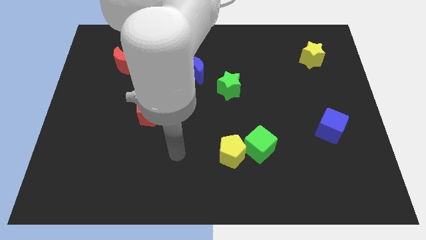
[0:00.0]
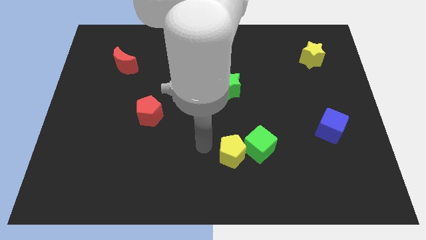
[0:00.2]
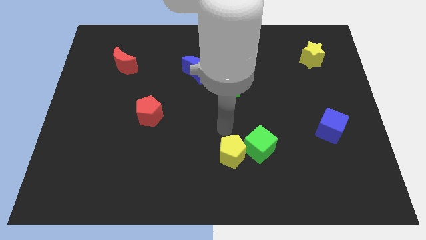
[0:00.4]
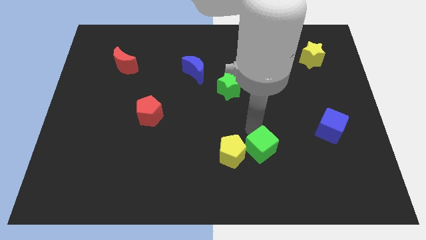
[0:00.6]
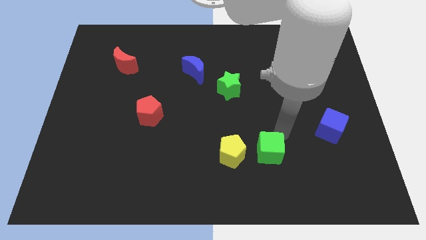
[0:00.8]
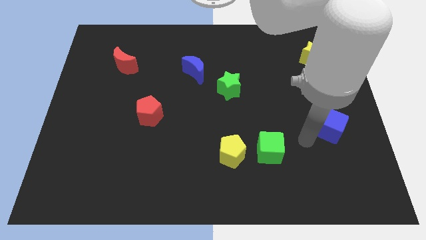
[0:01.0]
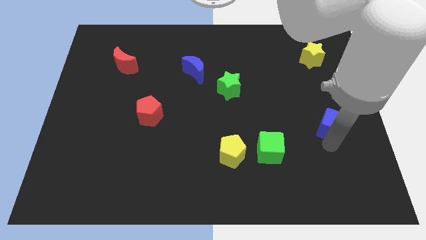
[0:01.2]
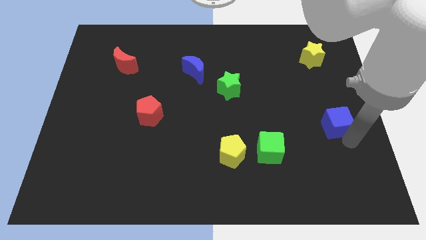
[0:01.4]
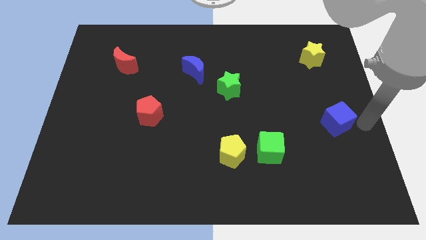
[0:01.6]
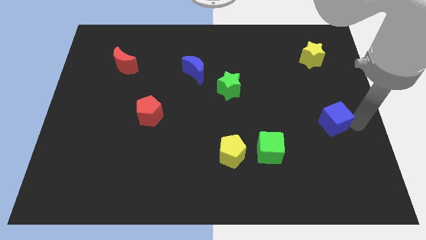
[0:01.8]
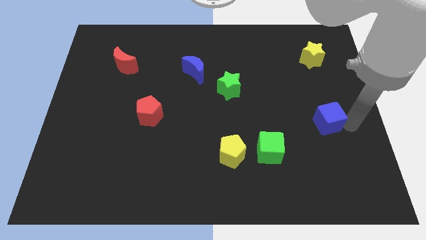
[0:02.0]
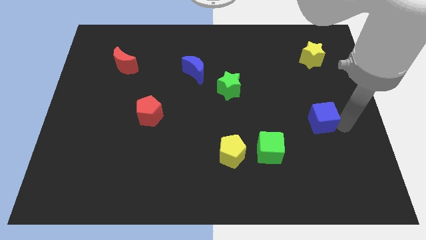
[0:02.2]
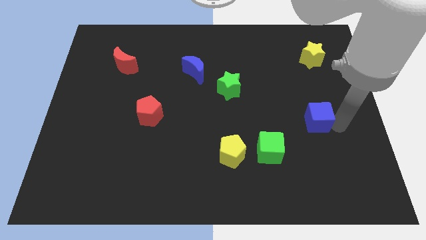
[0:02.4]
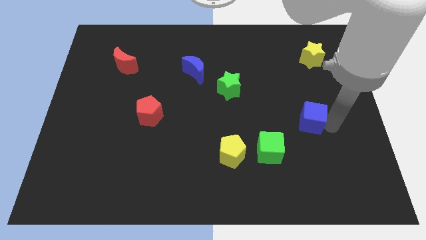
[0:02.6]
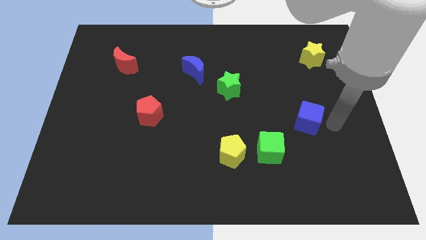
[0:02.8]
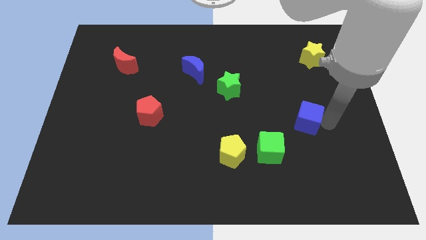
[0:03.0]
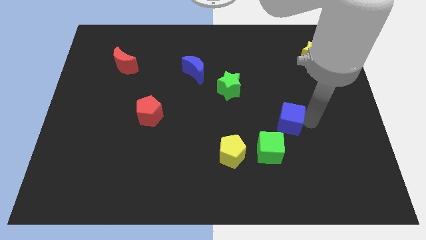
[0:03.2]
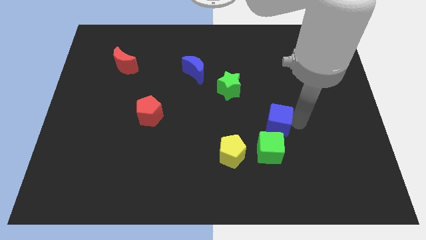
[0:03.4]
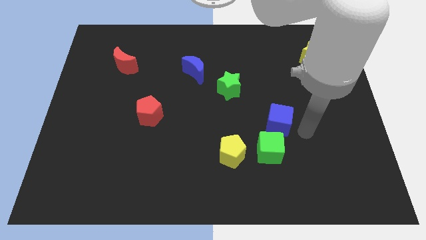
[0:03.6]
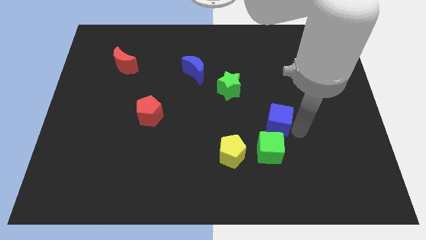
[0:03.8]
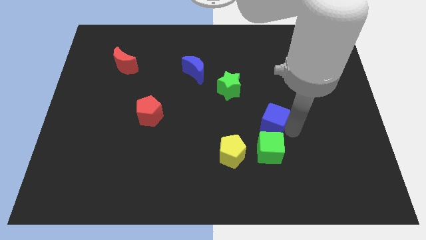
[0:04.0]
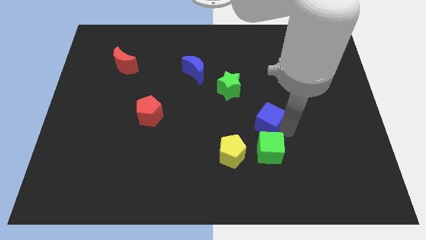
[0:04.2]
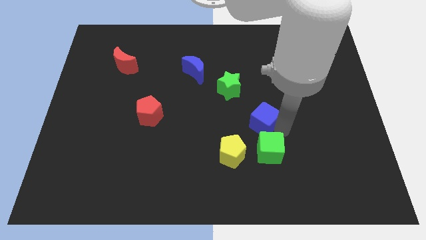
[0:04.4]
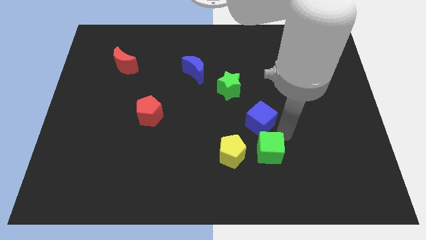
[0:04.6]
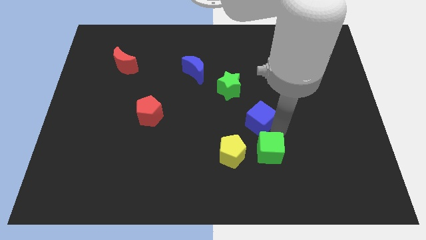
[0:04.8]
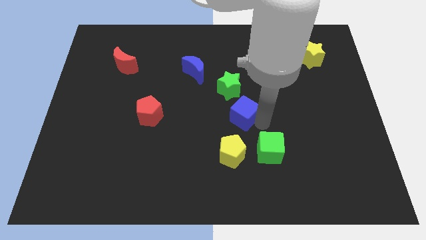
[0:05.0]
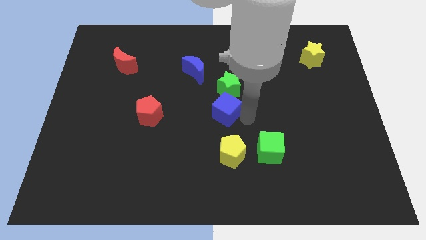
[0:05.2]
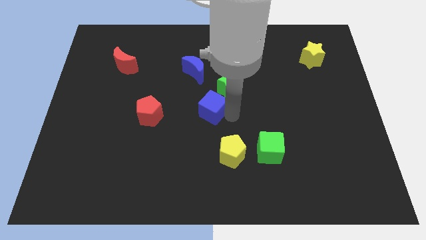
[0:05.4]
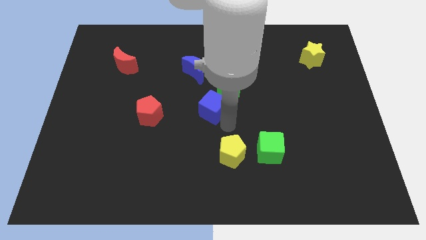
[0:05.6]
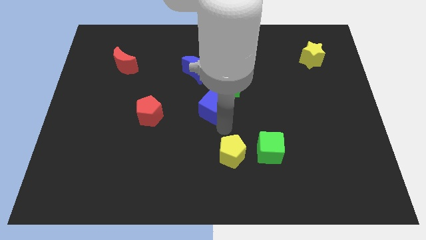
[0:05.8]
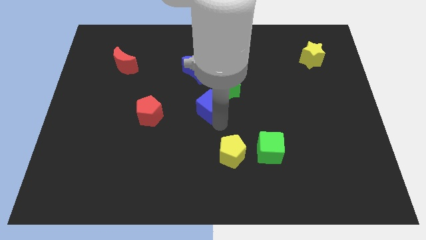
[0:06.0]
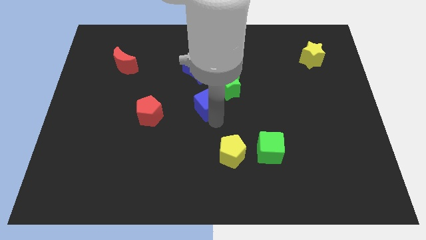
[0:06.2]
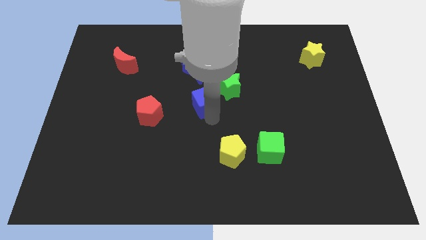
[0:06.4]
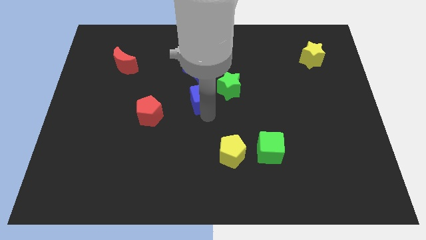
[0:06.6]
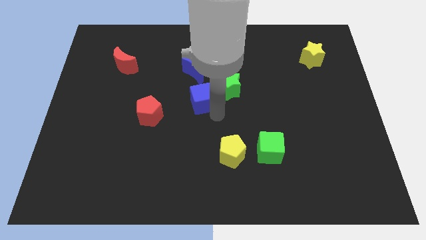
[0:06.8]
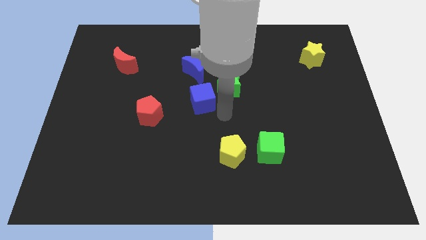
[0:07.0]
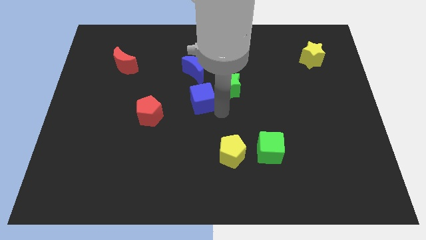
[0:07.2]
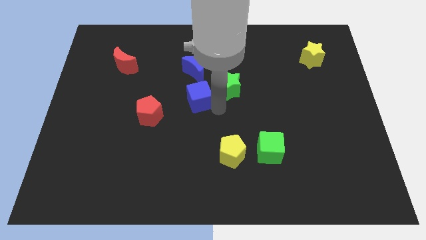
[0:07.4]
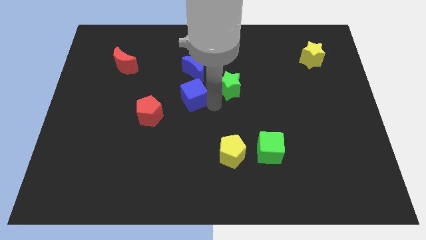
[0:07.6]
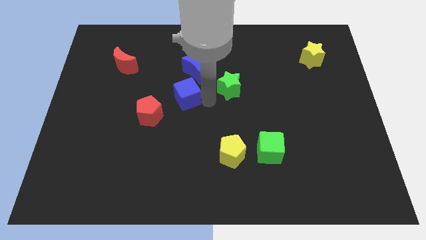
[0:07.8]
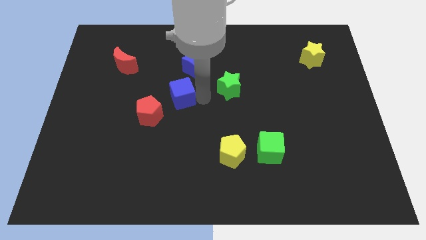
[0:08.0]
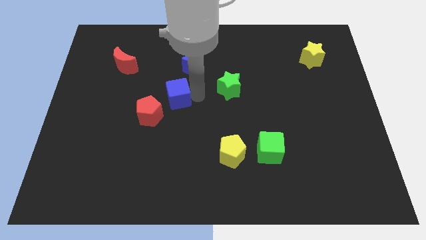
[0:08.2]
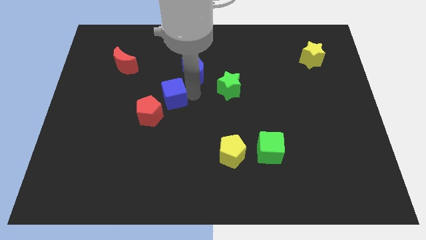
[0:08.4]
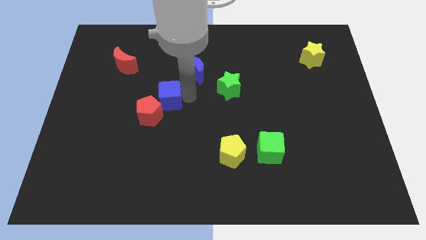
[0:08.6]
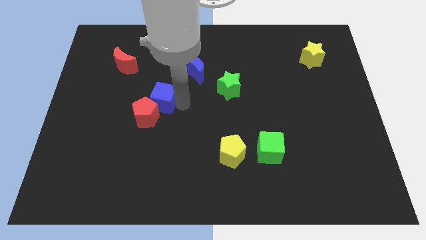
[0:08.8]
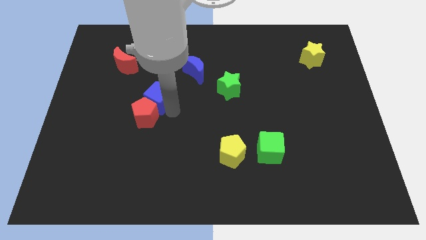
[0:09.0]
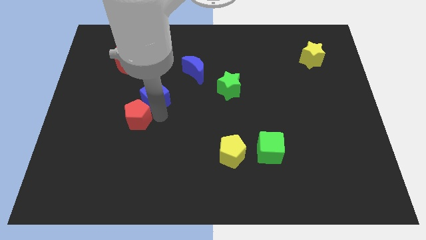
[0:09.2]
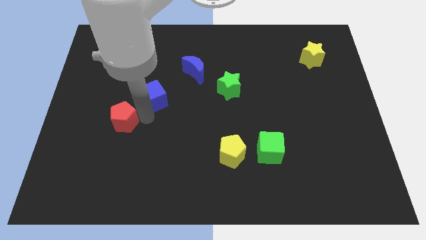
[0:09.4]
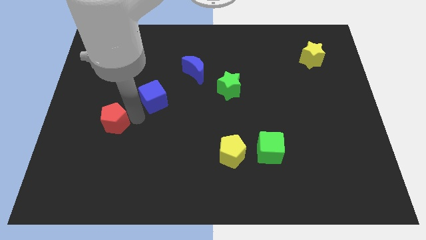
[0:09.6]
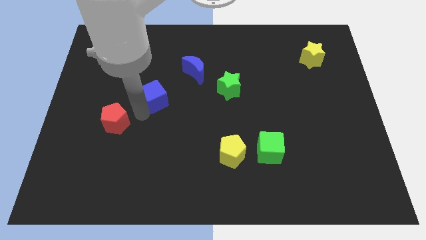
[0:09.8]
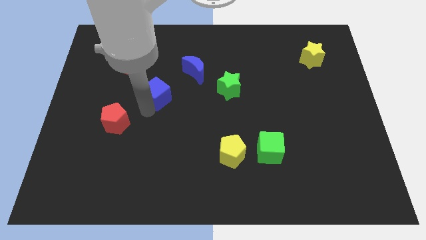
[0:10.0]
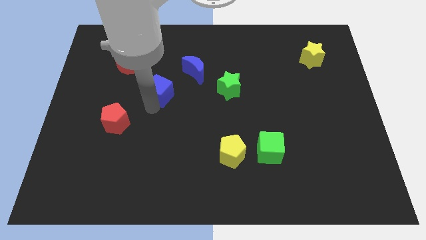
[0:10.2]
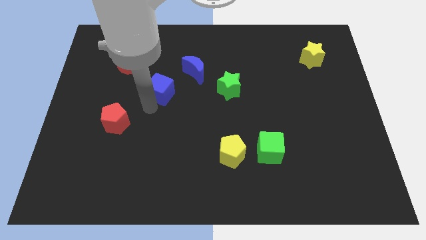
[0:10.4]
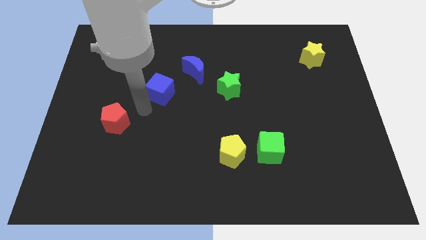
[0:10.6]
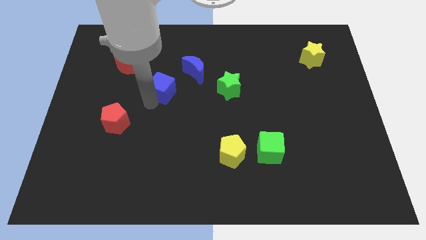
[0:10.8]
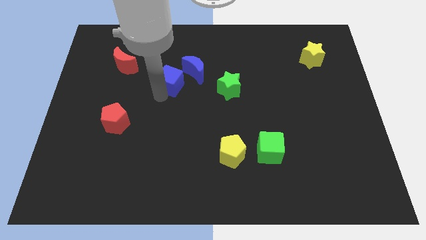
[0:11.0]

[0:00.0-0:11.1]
put the blue cube to the left side of the blue moon

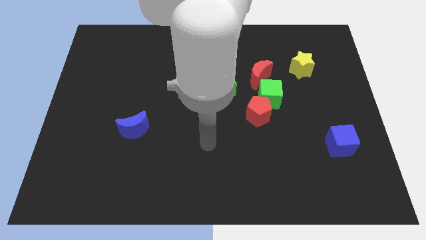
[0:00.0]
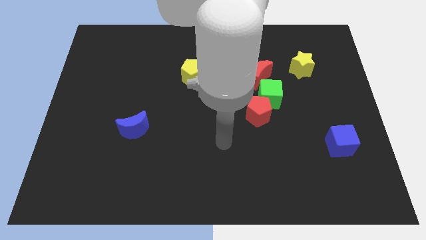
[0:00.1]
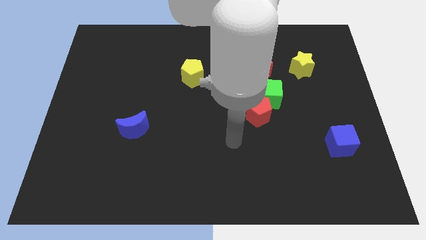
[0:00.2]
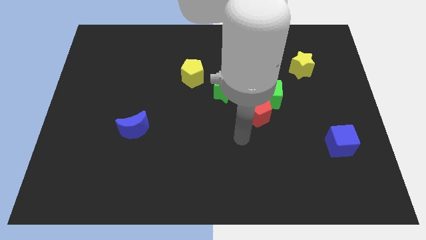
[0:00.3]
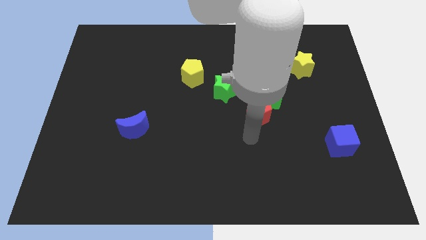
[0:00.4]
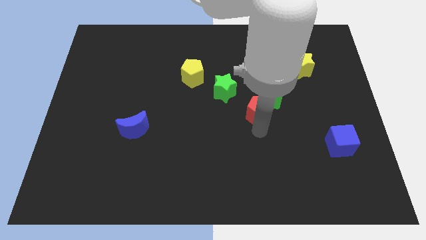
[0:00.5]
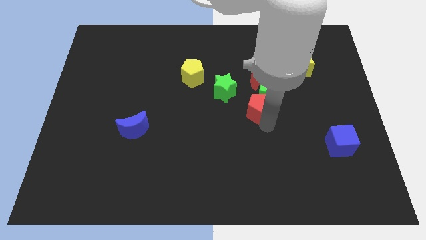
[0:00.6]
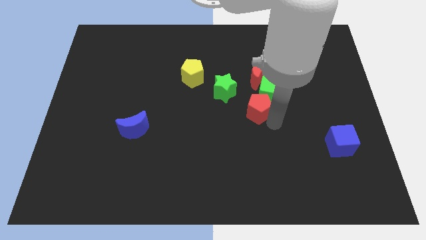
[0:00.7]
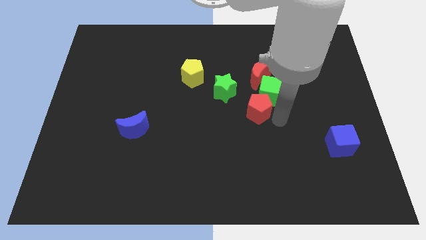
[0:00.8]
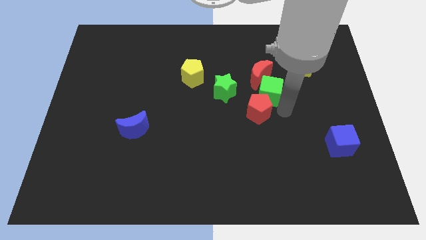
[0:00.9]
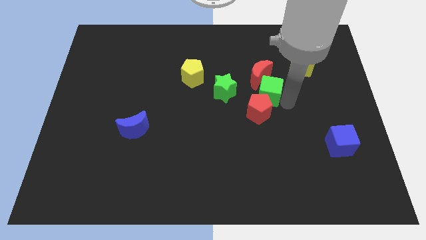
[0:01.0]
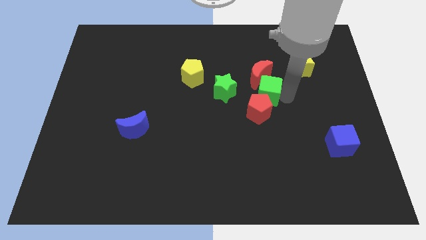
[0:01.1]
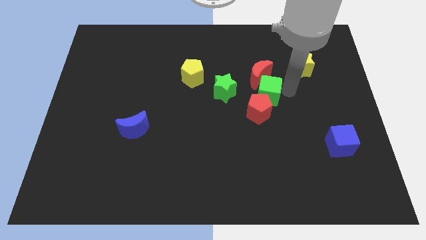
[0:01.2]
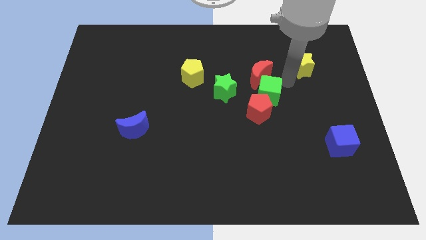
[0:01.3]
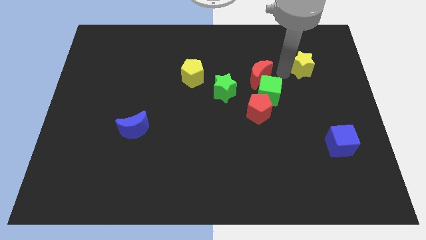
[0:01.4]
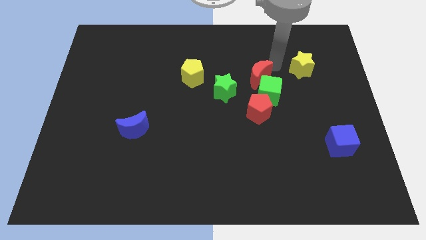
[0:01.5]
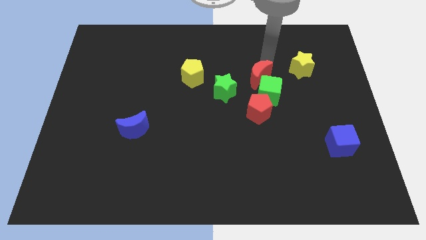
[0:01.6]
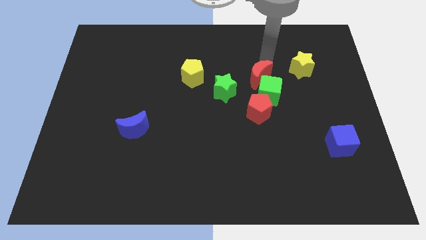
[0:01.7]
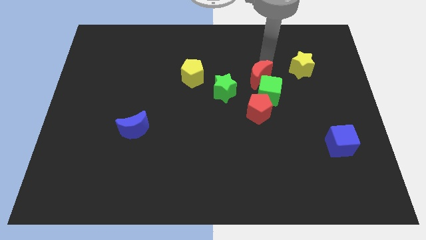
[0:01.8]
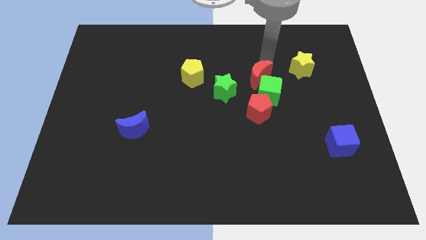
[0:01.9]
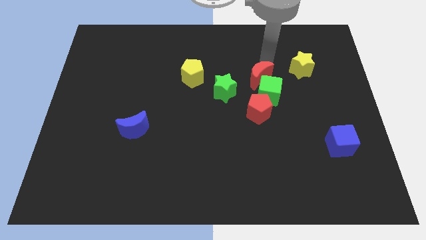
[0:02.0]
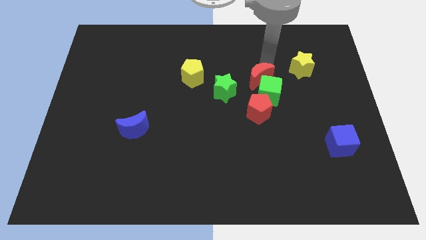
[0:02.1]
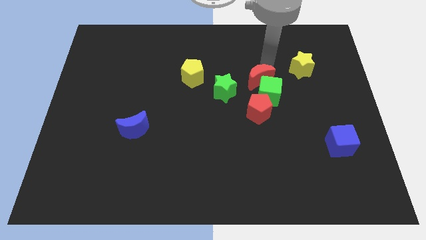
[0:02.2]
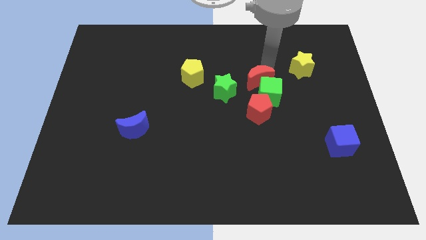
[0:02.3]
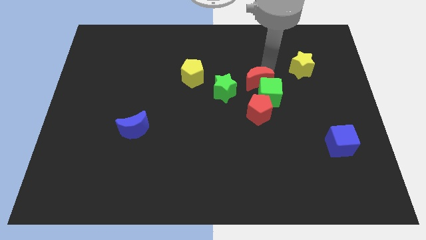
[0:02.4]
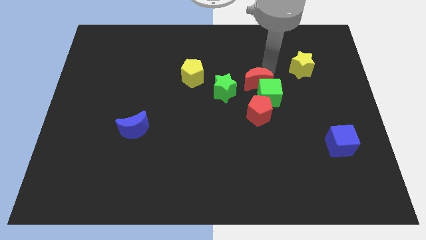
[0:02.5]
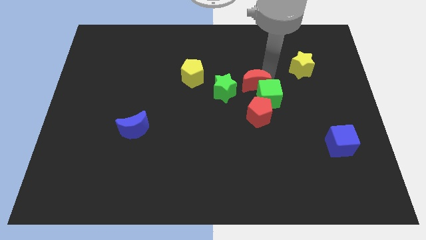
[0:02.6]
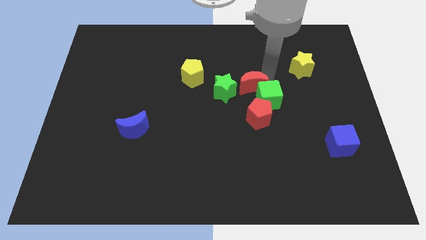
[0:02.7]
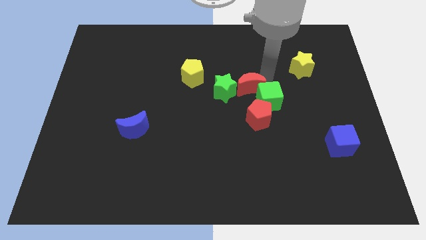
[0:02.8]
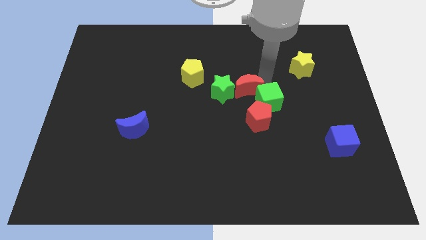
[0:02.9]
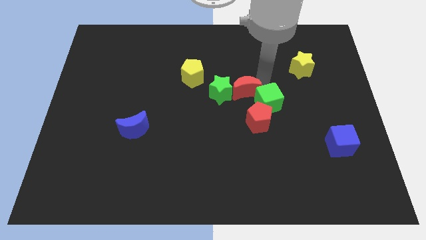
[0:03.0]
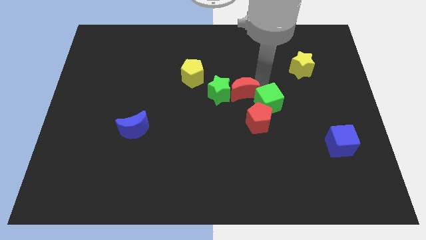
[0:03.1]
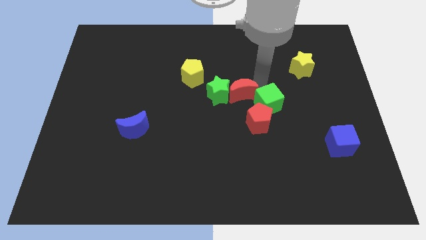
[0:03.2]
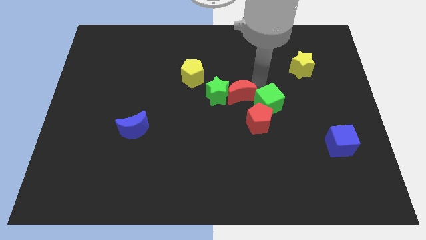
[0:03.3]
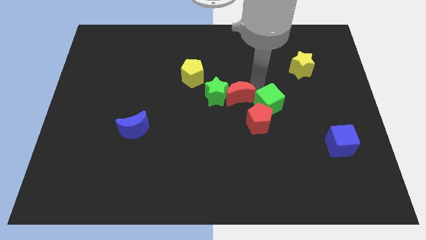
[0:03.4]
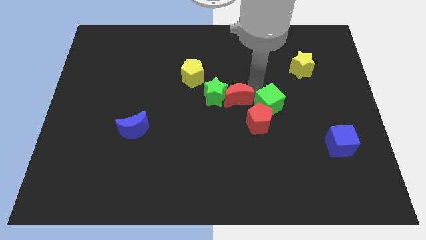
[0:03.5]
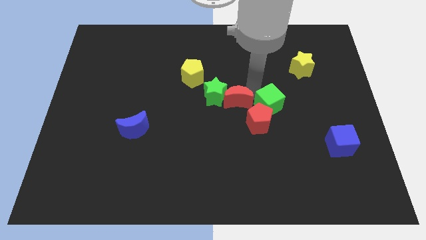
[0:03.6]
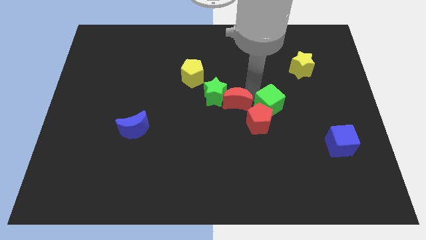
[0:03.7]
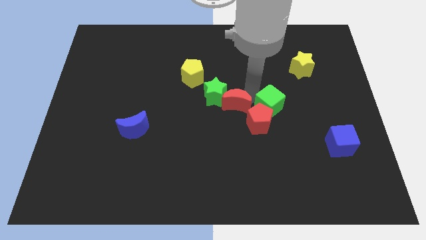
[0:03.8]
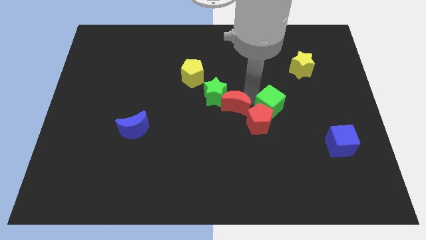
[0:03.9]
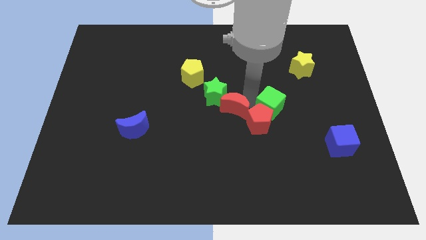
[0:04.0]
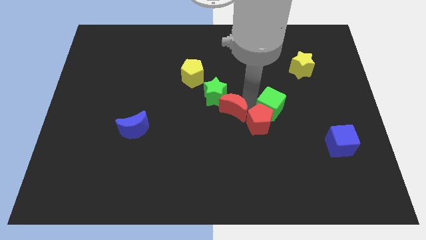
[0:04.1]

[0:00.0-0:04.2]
move the red moon to the bottom side of the green star
